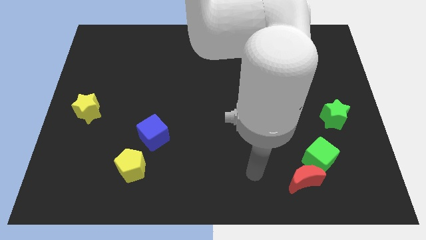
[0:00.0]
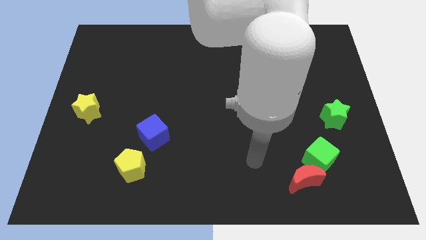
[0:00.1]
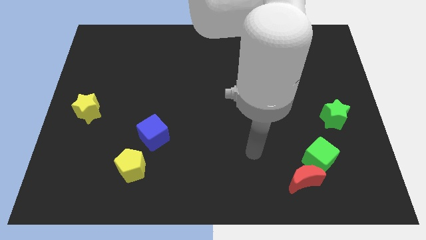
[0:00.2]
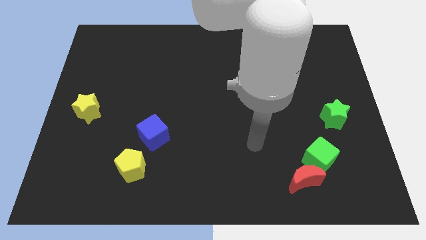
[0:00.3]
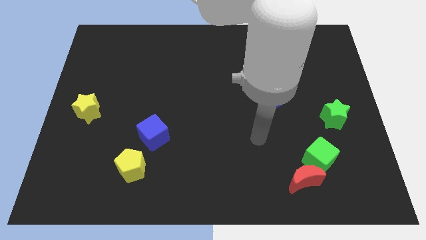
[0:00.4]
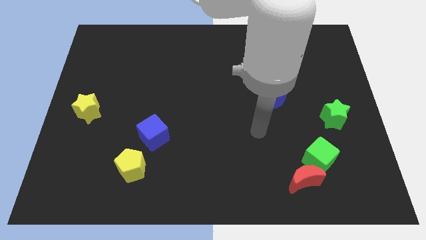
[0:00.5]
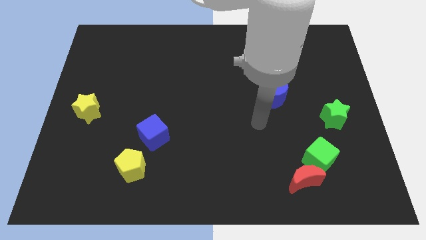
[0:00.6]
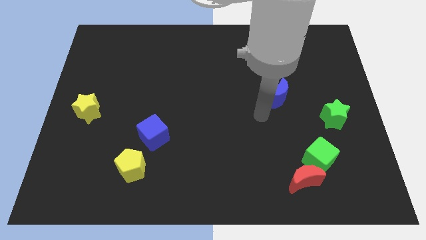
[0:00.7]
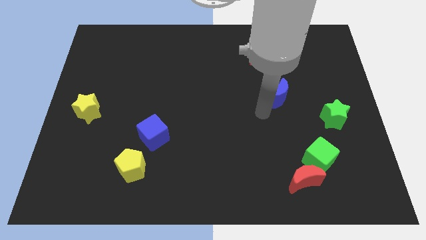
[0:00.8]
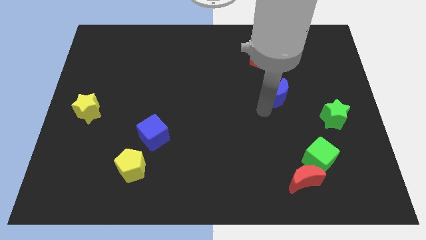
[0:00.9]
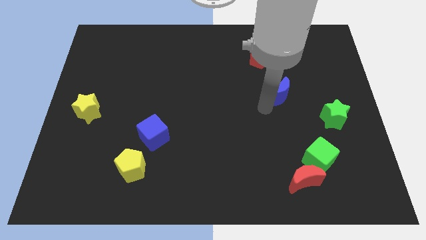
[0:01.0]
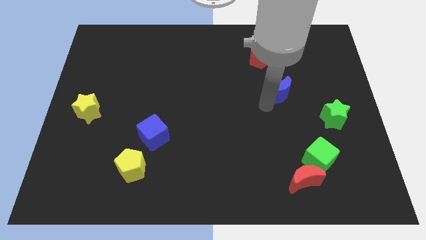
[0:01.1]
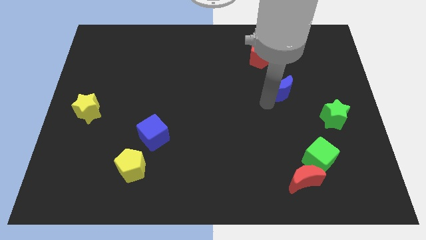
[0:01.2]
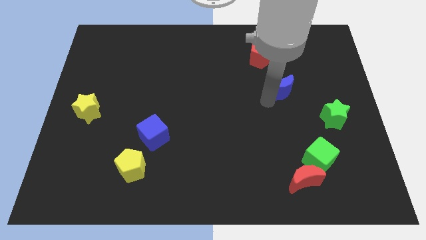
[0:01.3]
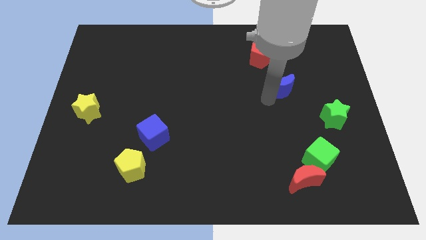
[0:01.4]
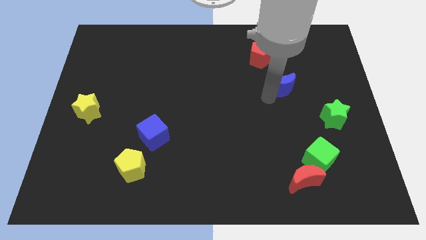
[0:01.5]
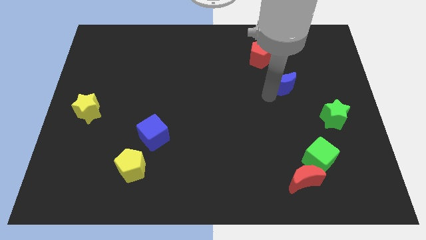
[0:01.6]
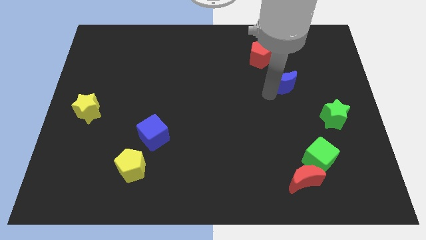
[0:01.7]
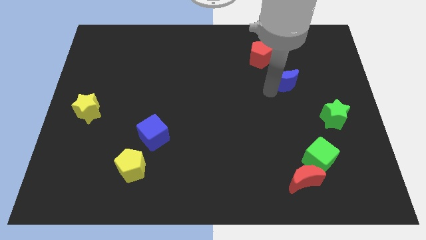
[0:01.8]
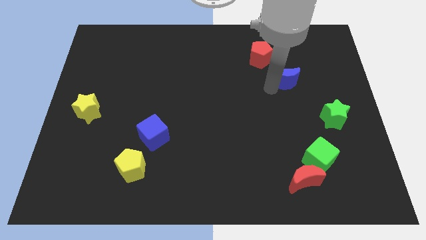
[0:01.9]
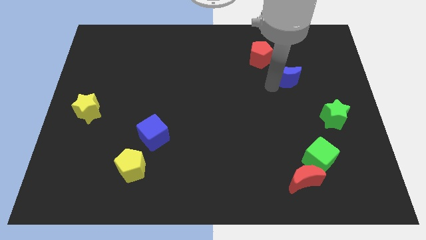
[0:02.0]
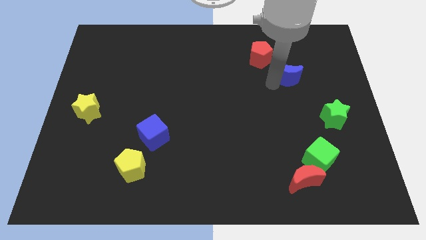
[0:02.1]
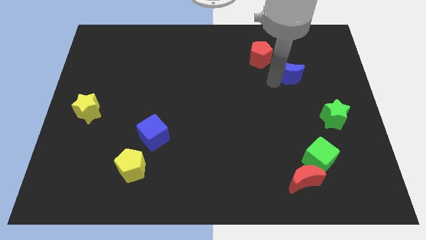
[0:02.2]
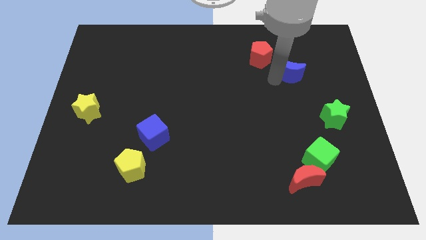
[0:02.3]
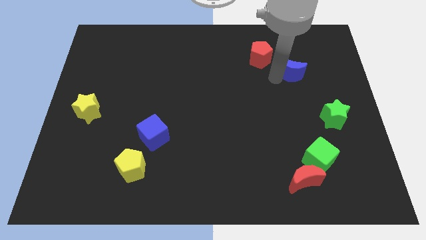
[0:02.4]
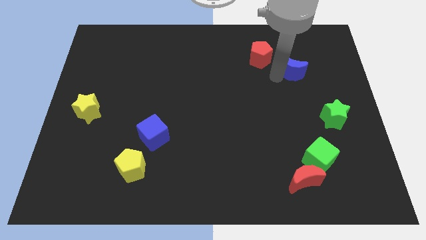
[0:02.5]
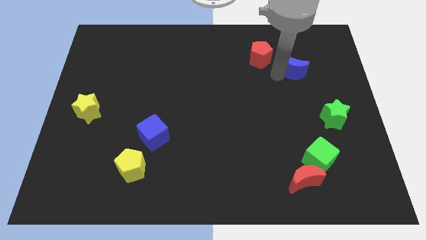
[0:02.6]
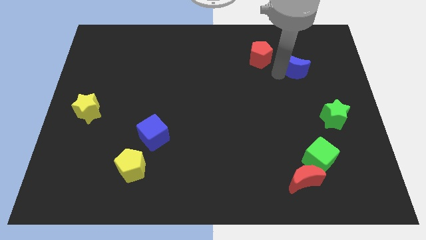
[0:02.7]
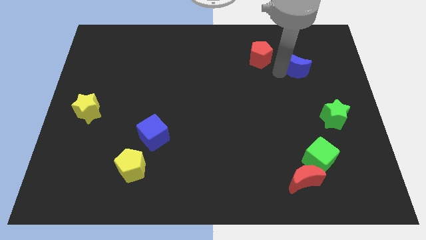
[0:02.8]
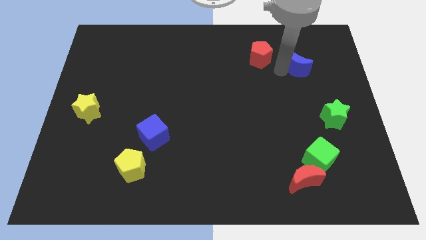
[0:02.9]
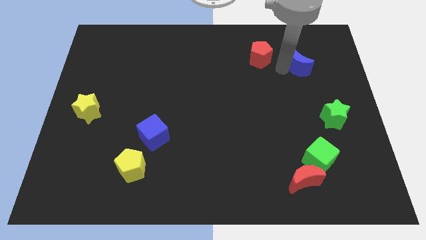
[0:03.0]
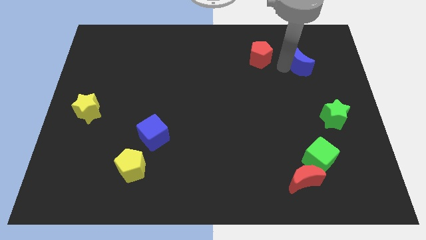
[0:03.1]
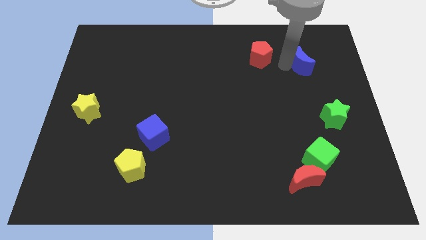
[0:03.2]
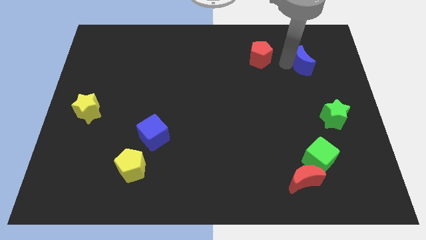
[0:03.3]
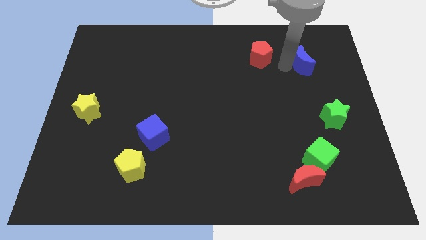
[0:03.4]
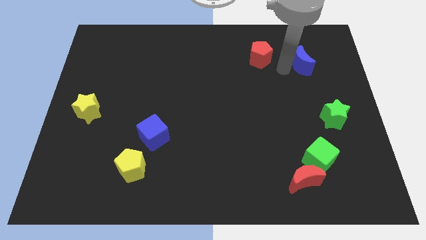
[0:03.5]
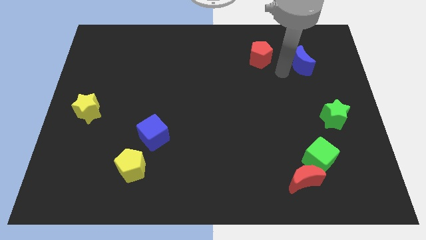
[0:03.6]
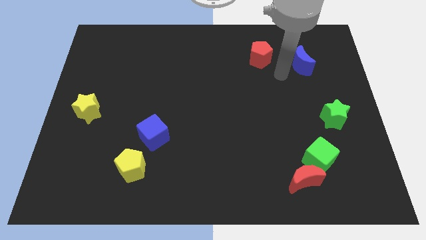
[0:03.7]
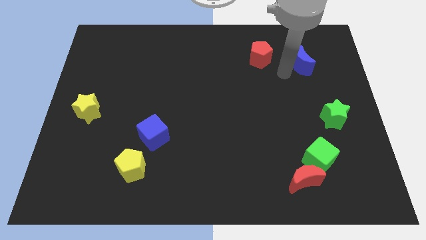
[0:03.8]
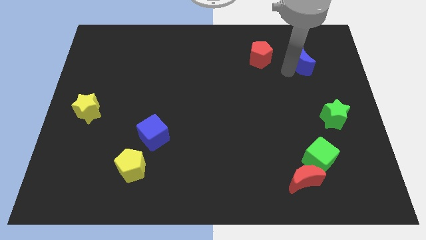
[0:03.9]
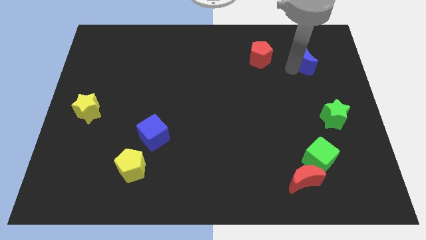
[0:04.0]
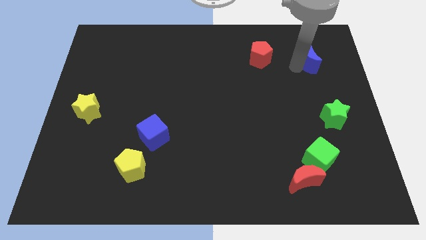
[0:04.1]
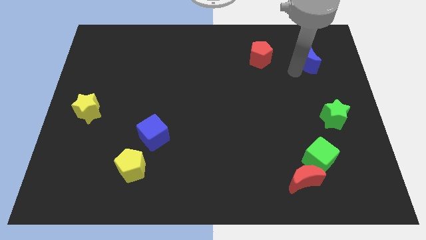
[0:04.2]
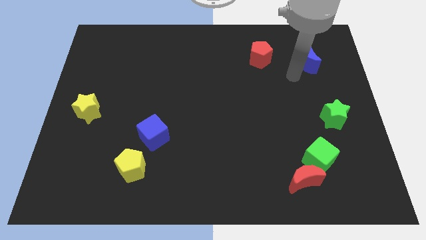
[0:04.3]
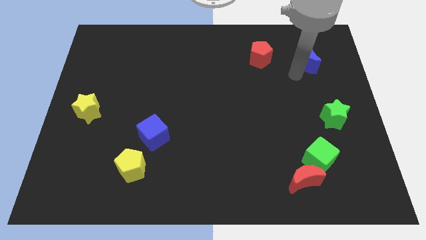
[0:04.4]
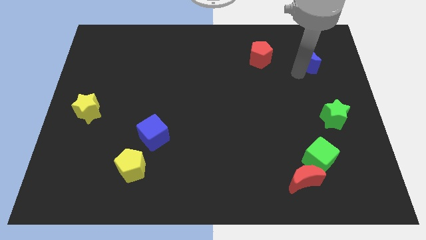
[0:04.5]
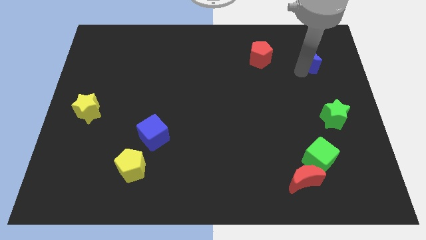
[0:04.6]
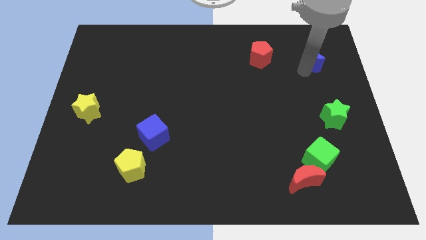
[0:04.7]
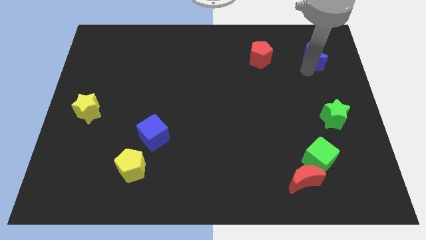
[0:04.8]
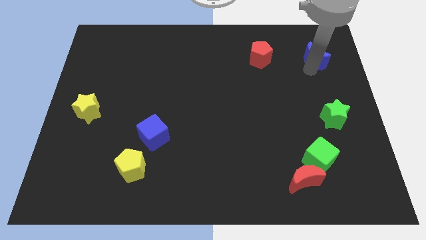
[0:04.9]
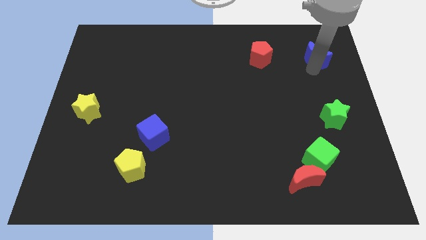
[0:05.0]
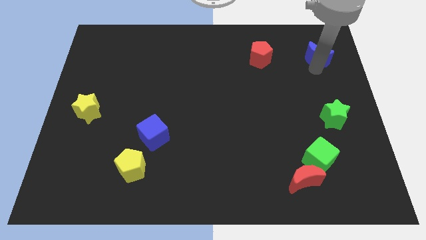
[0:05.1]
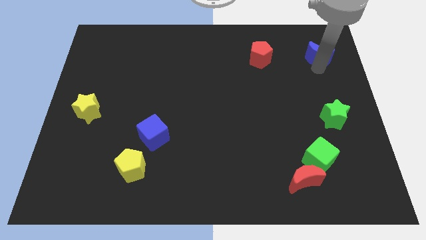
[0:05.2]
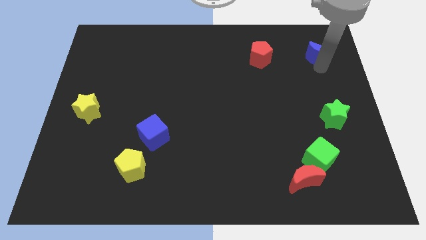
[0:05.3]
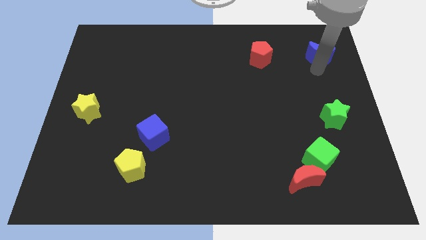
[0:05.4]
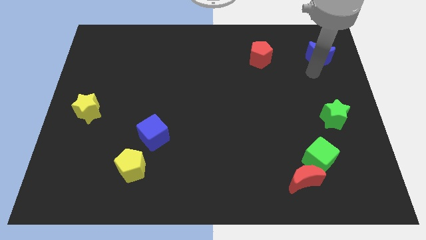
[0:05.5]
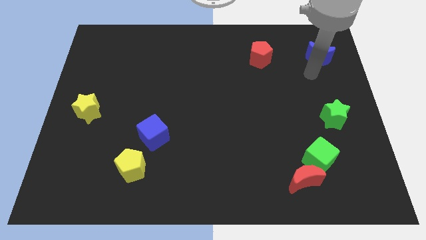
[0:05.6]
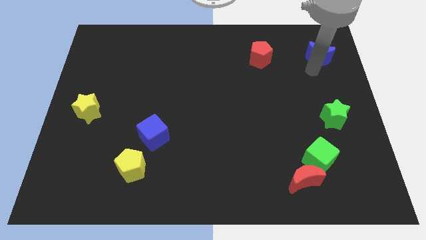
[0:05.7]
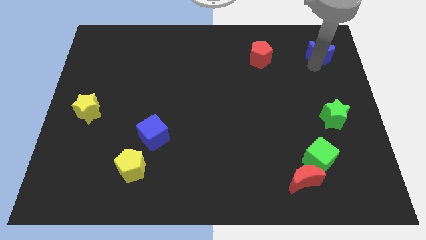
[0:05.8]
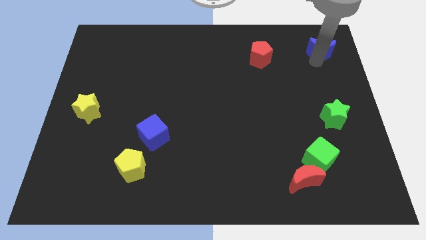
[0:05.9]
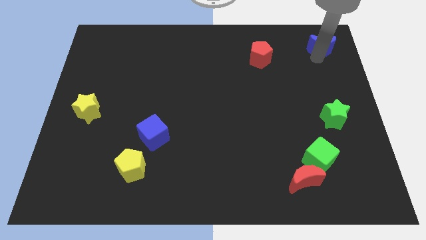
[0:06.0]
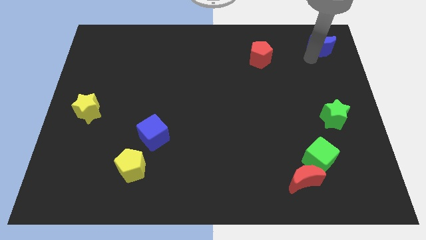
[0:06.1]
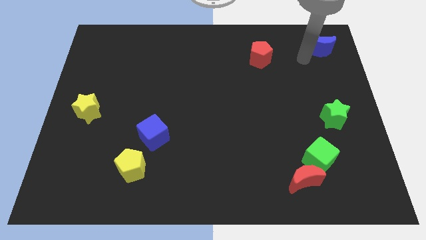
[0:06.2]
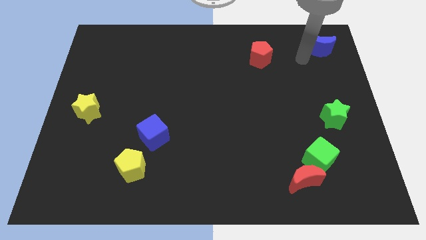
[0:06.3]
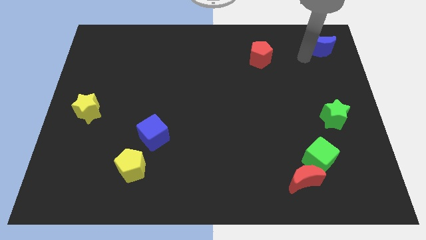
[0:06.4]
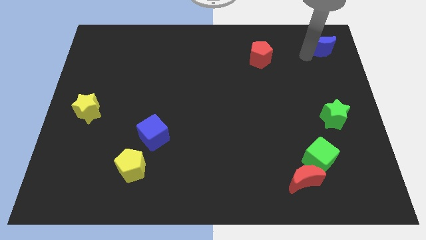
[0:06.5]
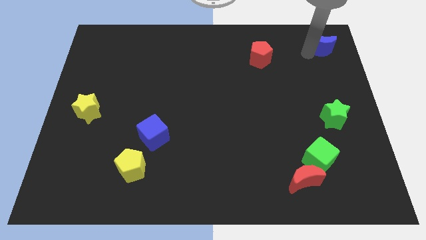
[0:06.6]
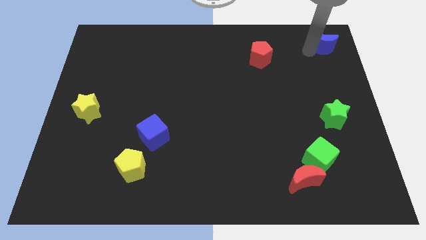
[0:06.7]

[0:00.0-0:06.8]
slide the blue moon to the top right

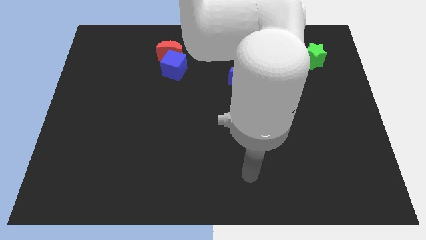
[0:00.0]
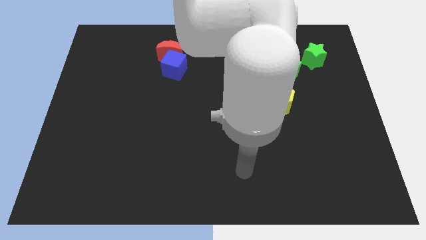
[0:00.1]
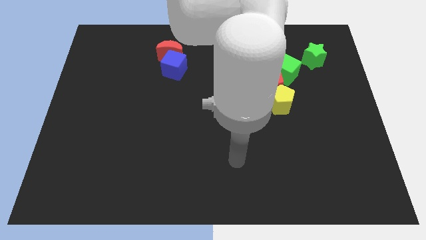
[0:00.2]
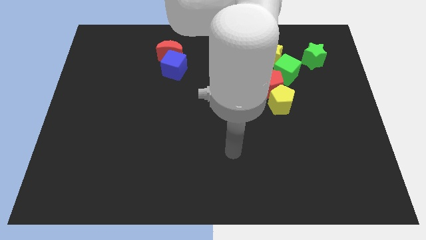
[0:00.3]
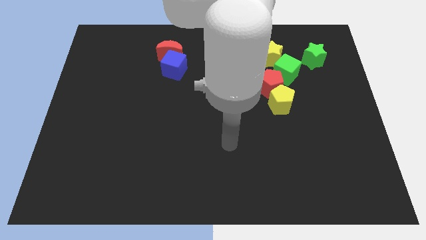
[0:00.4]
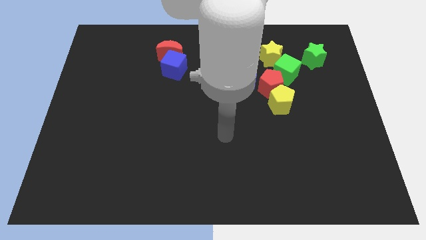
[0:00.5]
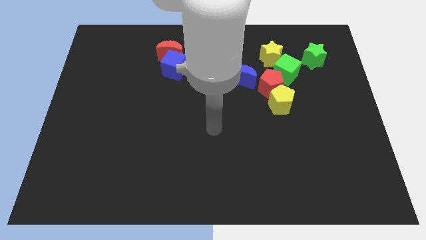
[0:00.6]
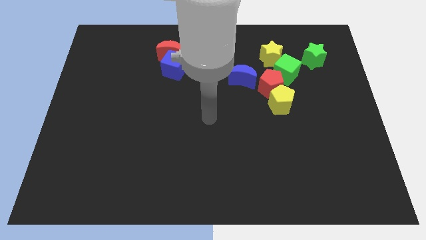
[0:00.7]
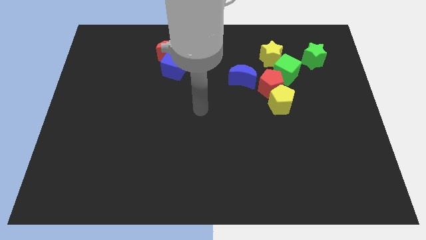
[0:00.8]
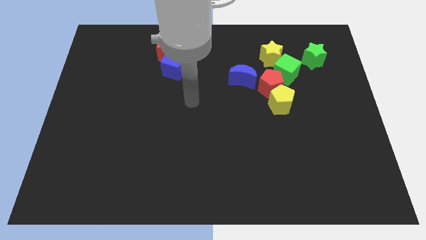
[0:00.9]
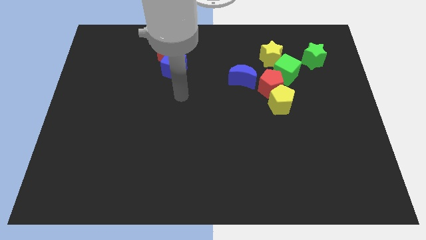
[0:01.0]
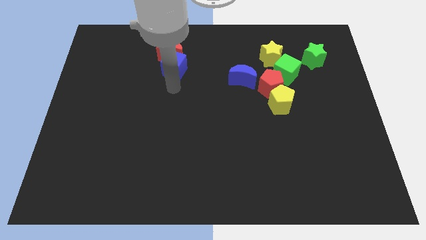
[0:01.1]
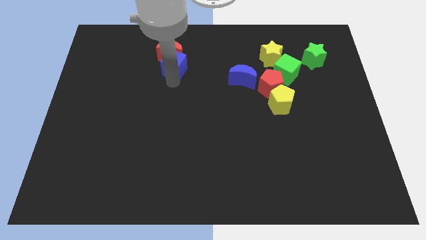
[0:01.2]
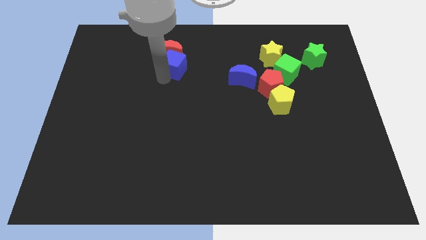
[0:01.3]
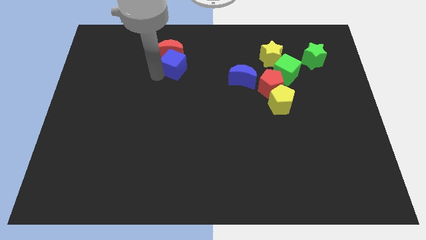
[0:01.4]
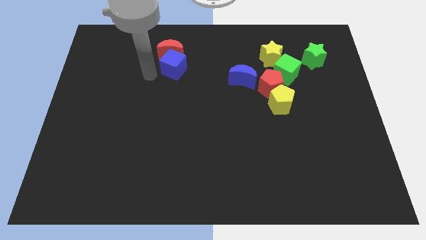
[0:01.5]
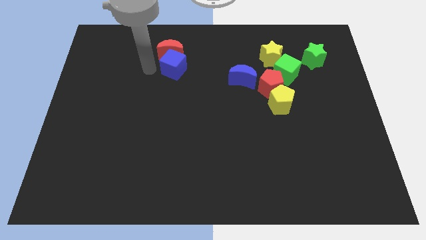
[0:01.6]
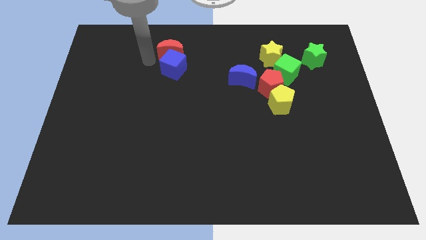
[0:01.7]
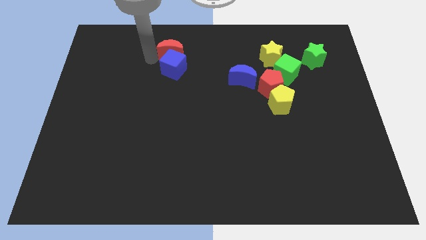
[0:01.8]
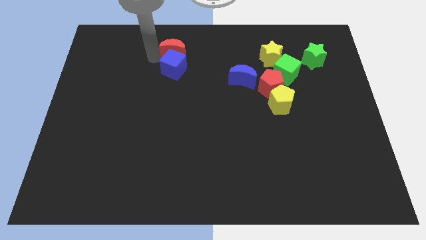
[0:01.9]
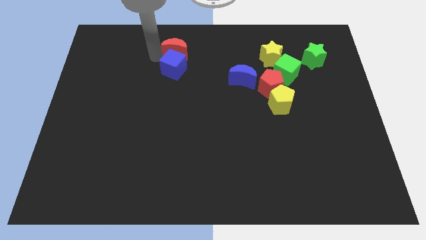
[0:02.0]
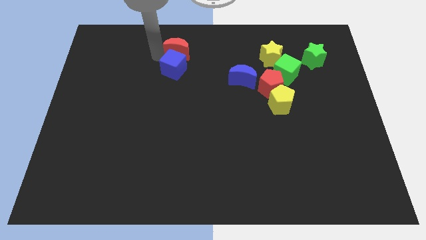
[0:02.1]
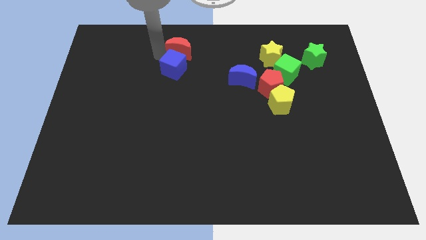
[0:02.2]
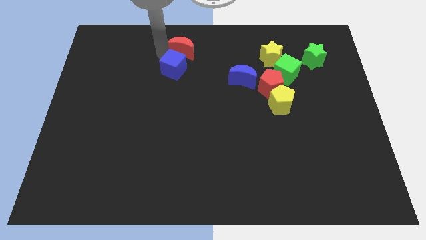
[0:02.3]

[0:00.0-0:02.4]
move the red moon to the top side
